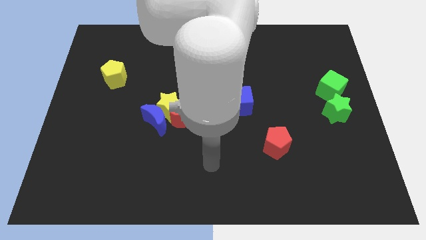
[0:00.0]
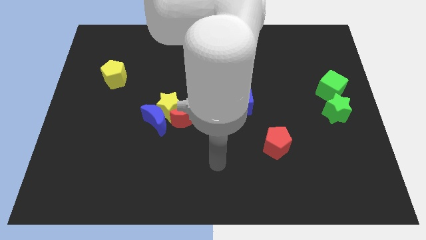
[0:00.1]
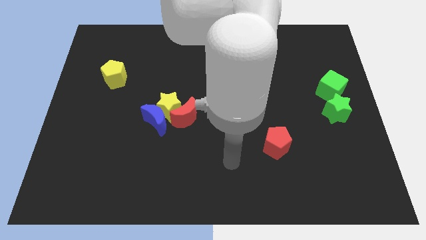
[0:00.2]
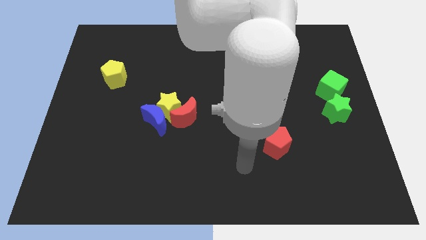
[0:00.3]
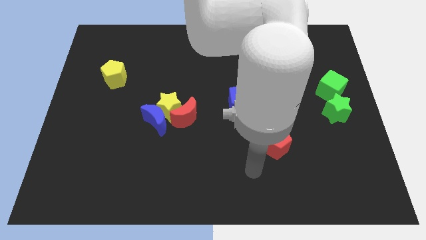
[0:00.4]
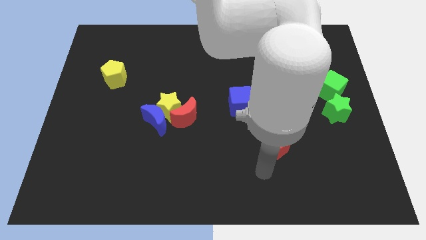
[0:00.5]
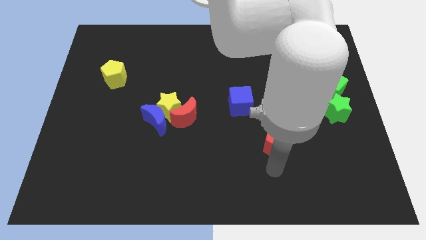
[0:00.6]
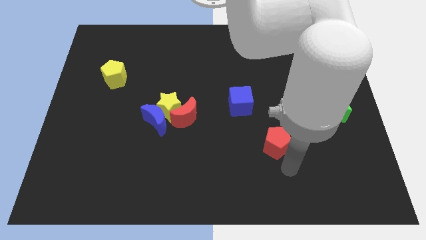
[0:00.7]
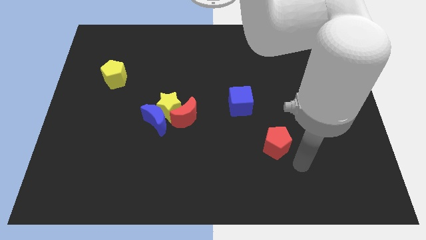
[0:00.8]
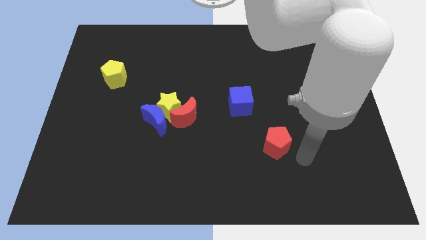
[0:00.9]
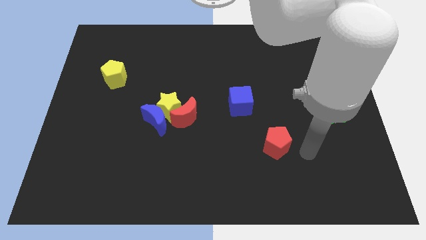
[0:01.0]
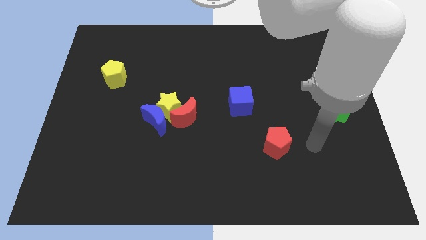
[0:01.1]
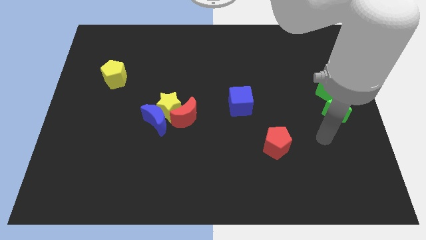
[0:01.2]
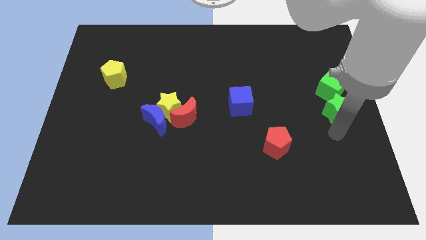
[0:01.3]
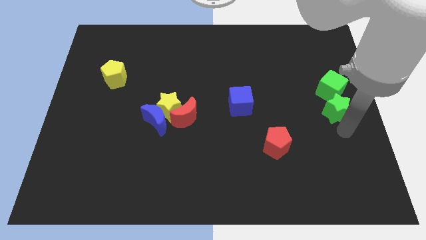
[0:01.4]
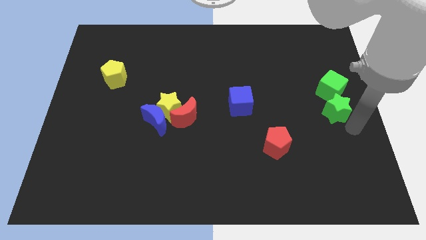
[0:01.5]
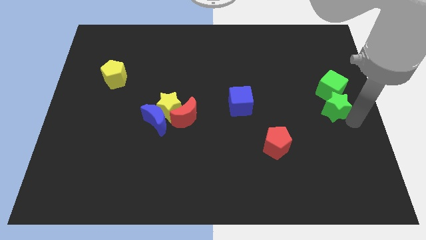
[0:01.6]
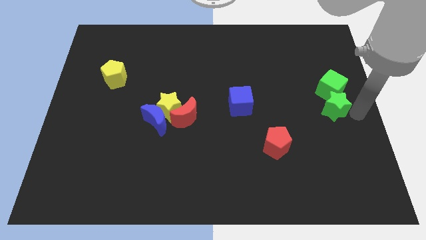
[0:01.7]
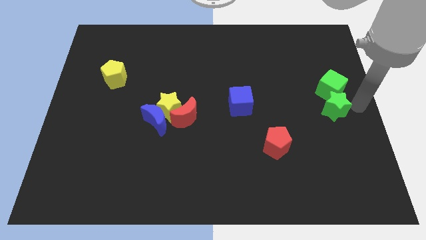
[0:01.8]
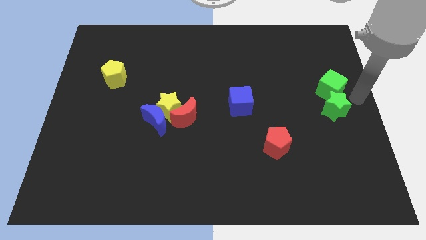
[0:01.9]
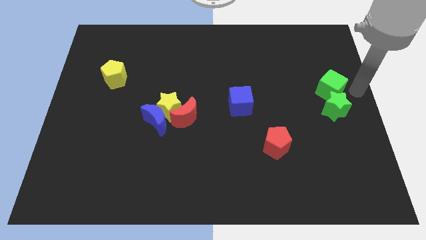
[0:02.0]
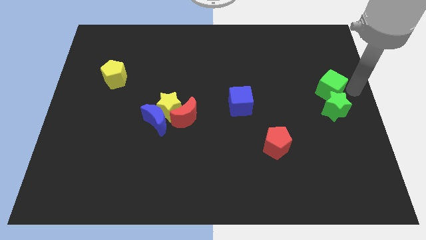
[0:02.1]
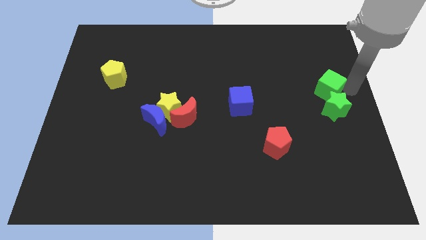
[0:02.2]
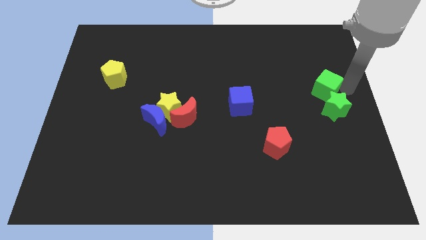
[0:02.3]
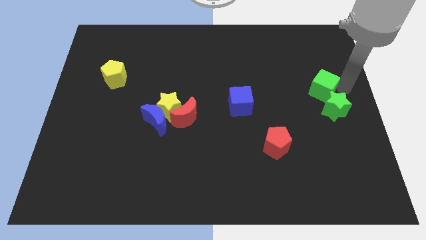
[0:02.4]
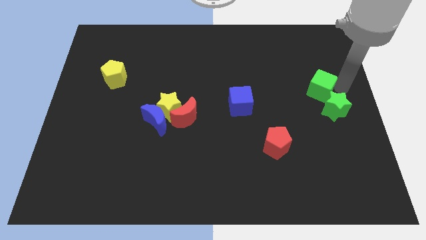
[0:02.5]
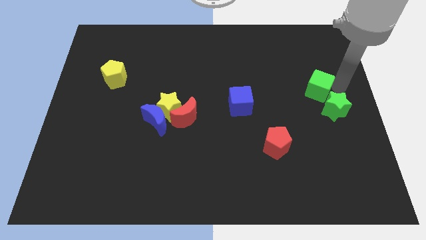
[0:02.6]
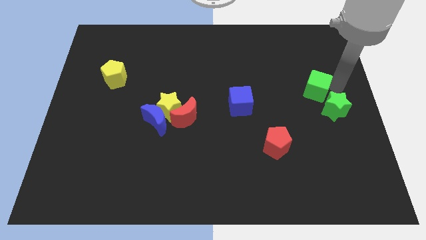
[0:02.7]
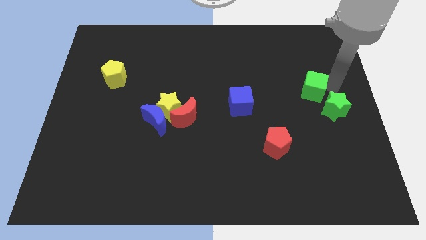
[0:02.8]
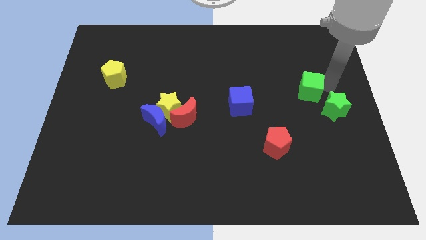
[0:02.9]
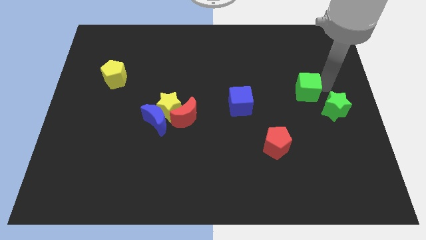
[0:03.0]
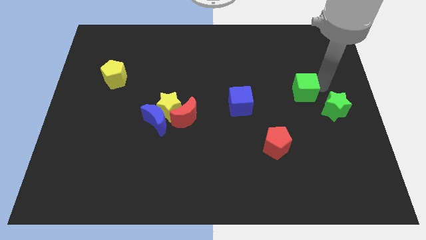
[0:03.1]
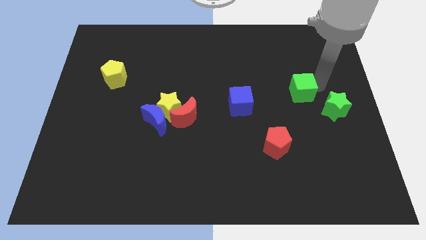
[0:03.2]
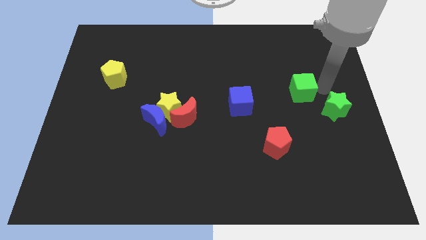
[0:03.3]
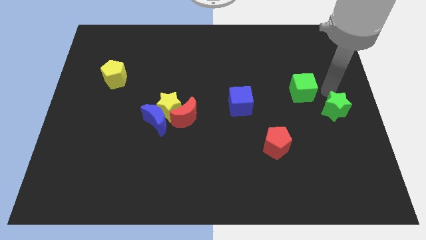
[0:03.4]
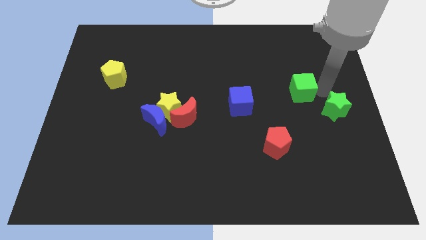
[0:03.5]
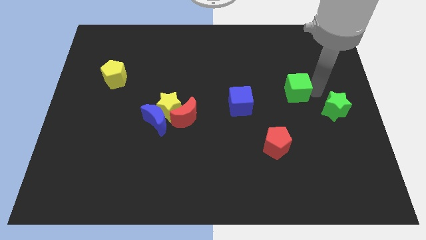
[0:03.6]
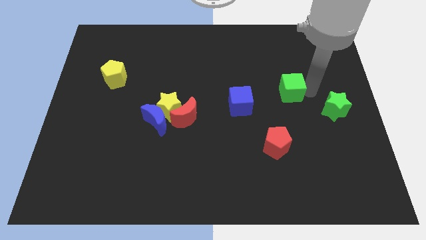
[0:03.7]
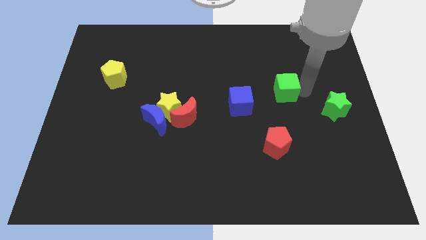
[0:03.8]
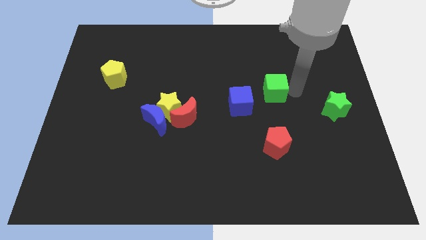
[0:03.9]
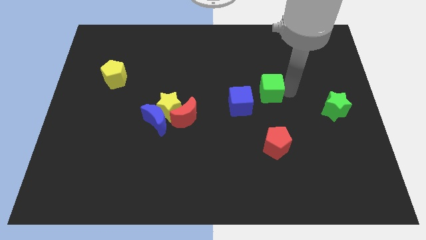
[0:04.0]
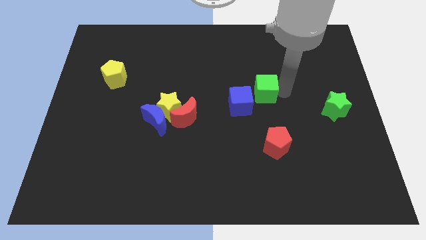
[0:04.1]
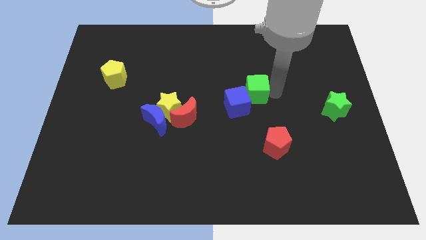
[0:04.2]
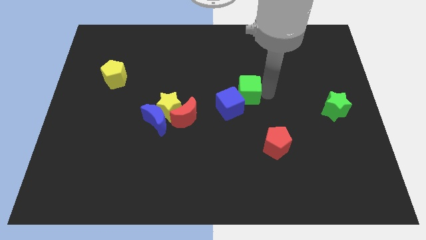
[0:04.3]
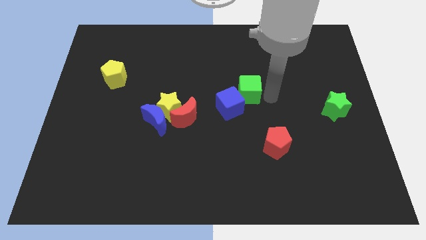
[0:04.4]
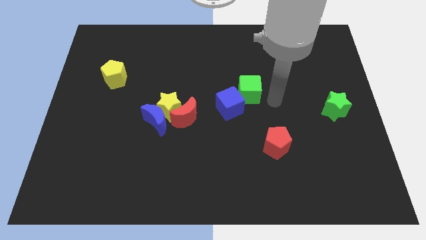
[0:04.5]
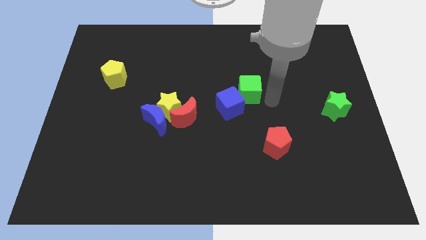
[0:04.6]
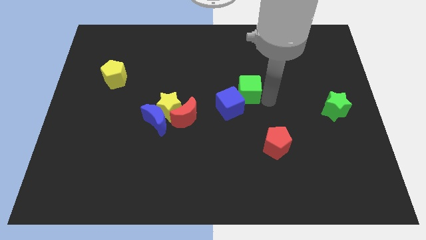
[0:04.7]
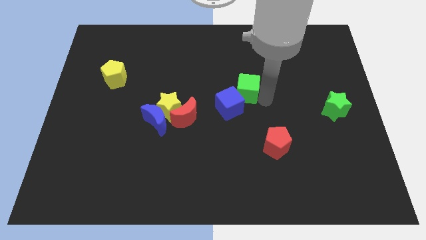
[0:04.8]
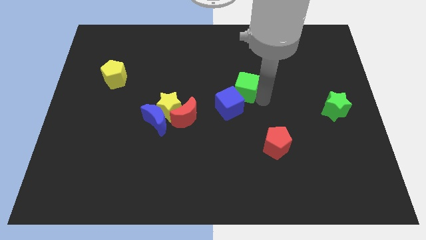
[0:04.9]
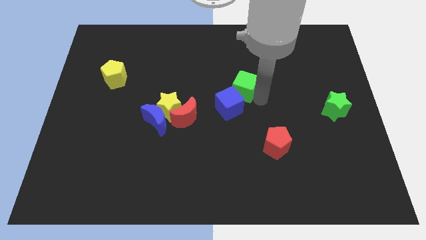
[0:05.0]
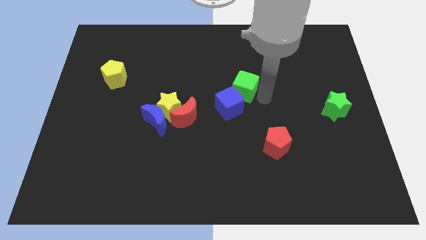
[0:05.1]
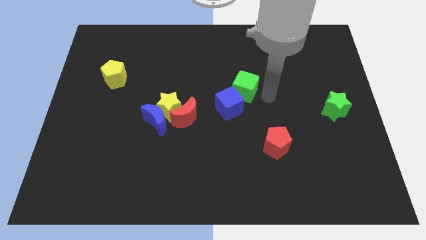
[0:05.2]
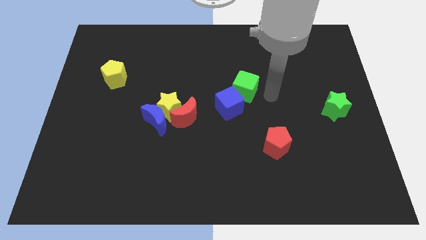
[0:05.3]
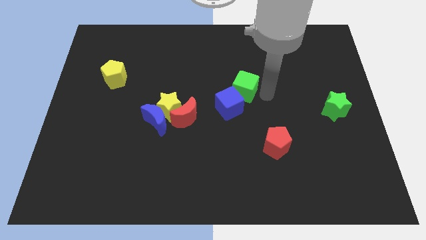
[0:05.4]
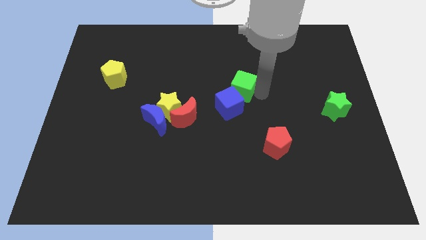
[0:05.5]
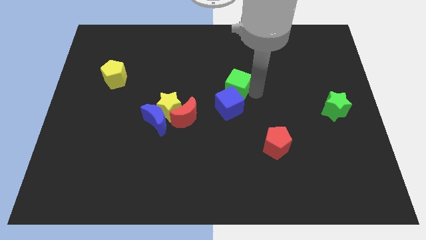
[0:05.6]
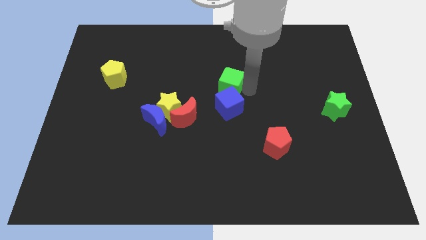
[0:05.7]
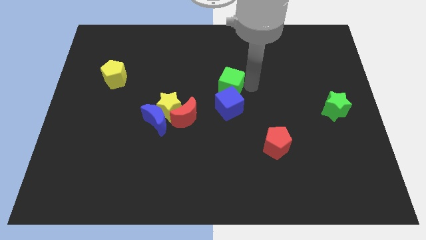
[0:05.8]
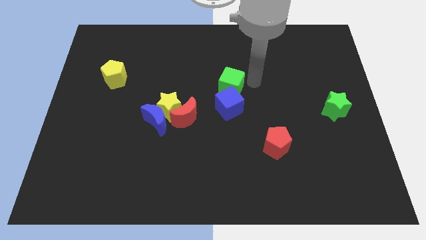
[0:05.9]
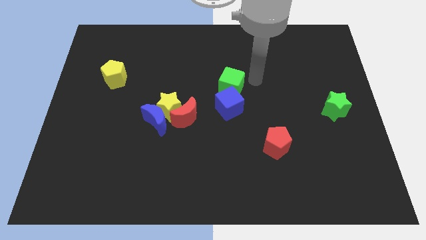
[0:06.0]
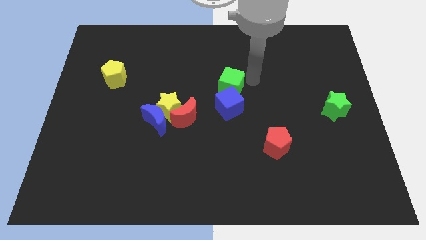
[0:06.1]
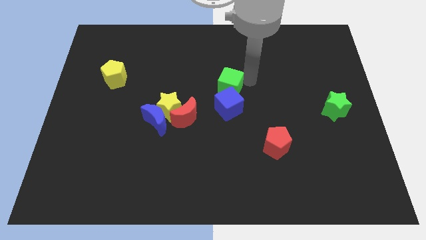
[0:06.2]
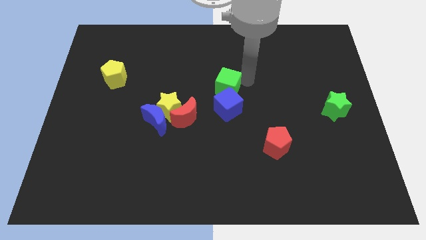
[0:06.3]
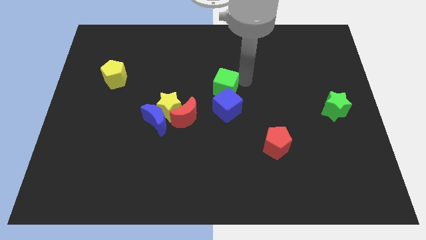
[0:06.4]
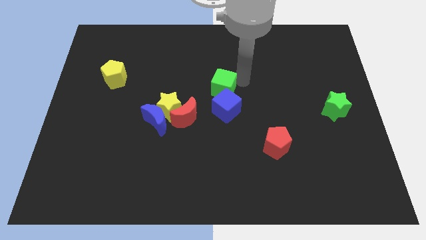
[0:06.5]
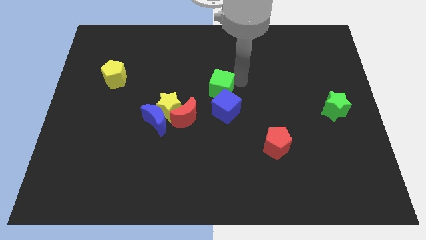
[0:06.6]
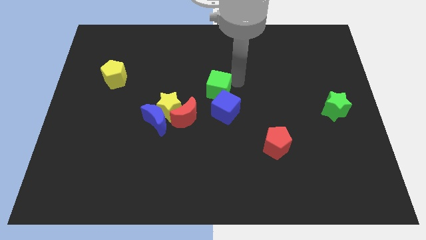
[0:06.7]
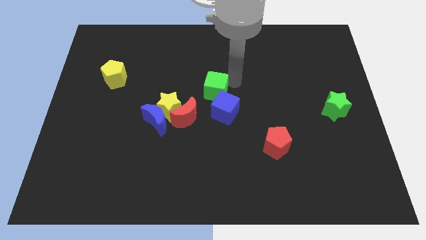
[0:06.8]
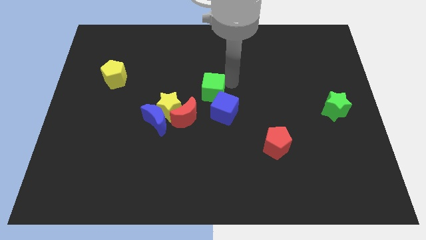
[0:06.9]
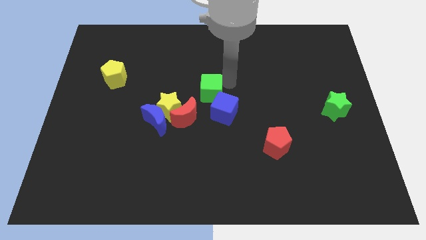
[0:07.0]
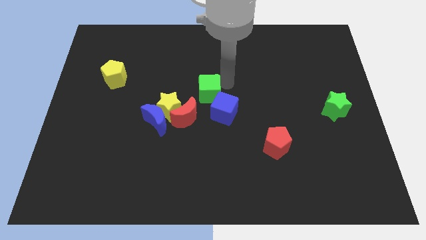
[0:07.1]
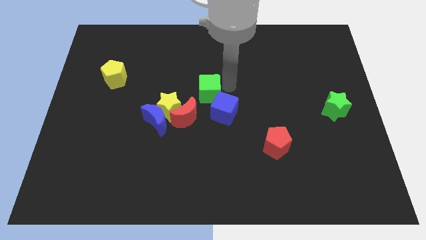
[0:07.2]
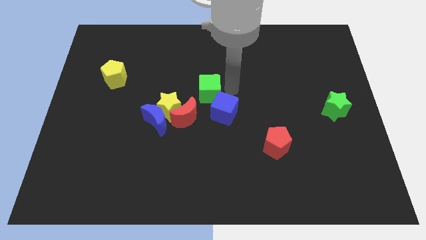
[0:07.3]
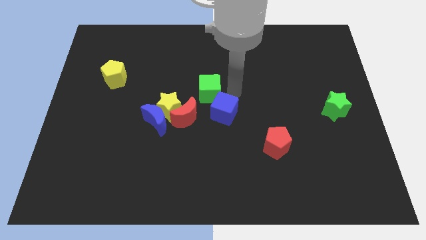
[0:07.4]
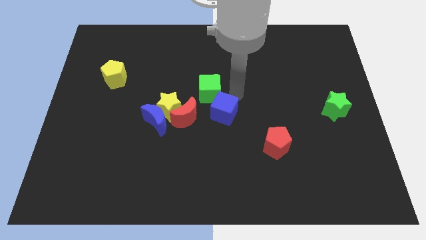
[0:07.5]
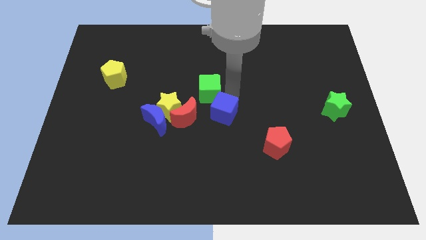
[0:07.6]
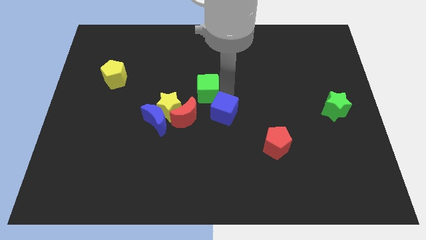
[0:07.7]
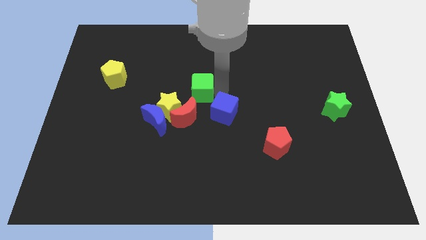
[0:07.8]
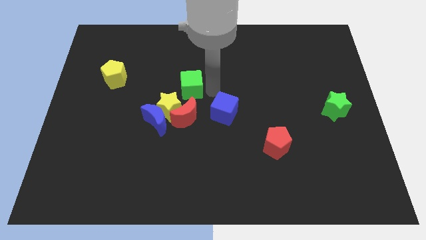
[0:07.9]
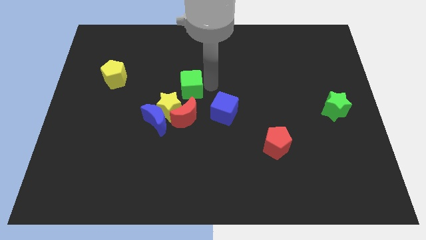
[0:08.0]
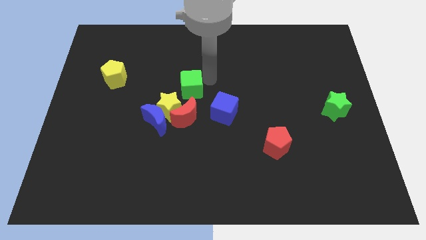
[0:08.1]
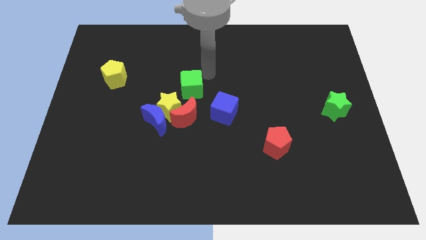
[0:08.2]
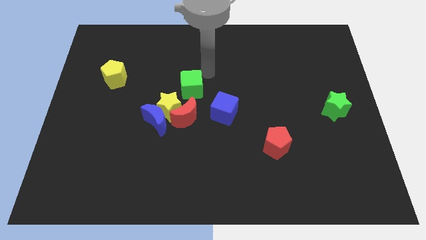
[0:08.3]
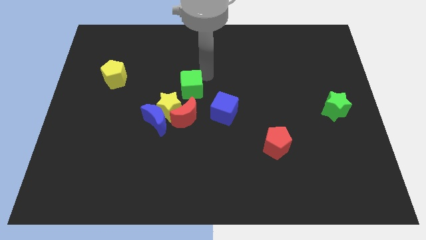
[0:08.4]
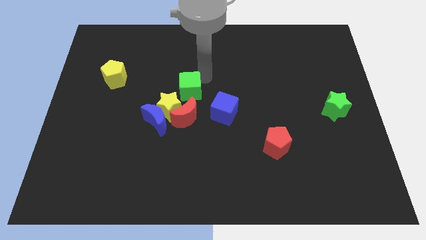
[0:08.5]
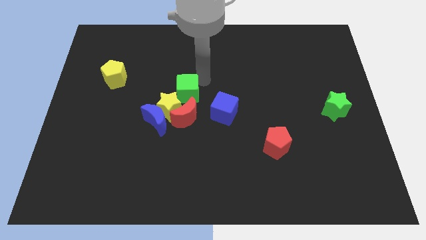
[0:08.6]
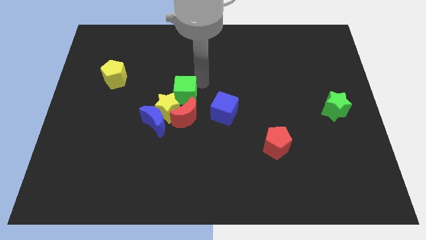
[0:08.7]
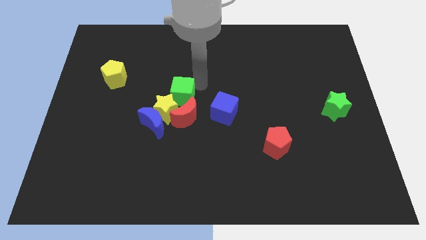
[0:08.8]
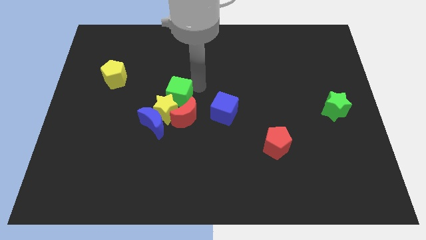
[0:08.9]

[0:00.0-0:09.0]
move the green cube next to the yellow star
